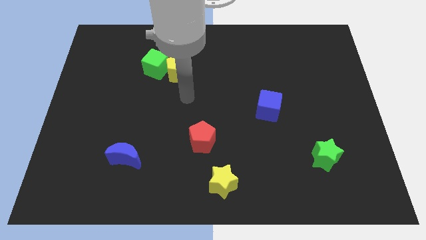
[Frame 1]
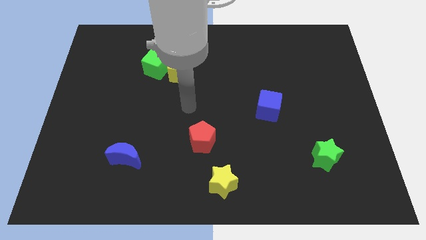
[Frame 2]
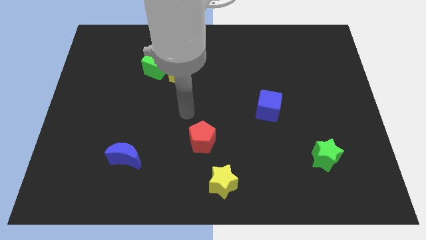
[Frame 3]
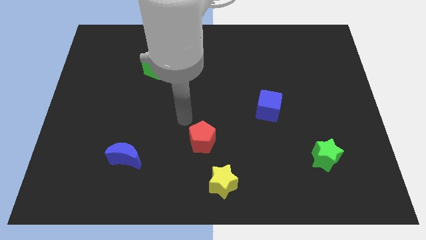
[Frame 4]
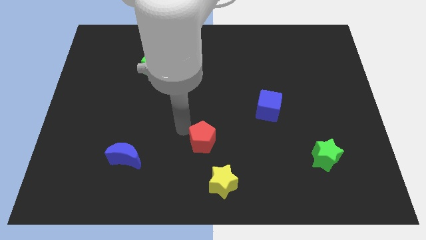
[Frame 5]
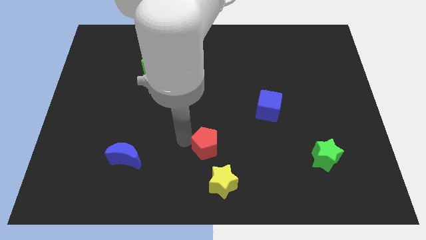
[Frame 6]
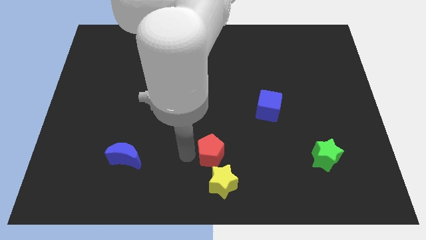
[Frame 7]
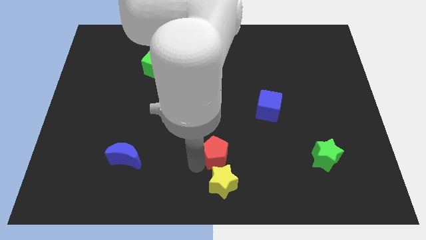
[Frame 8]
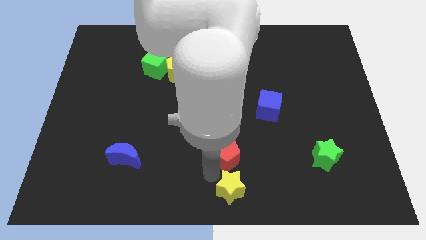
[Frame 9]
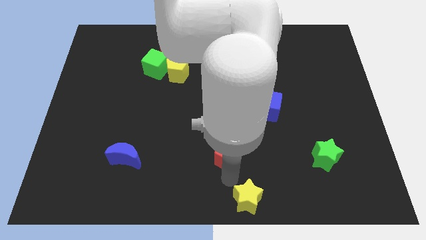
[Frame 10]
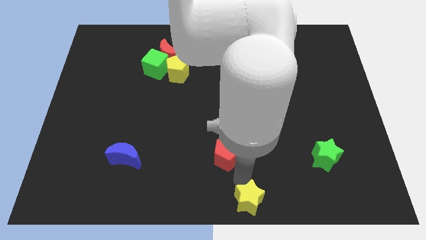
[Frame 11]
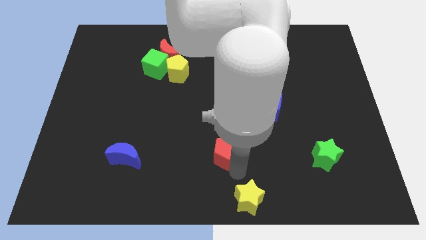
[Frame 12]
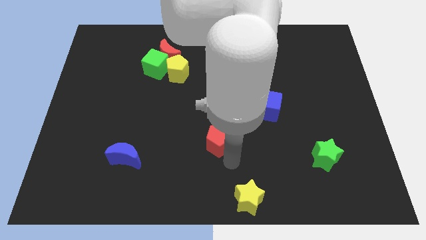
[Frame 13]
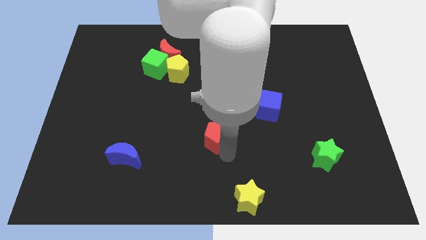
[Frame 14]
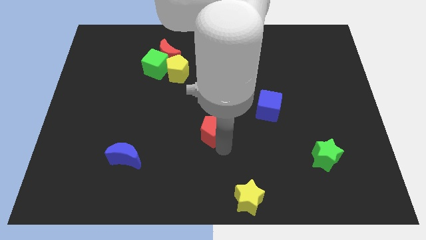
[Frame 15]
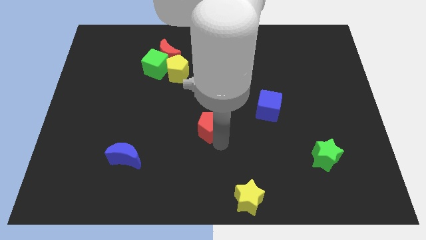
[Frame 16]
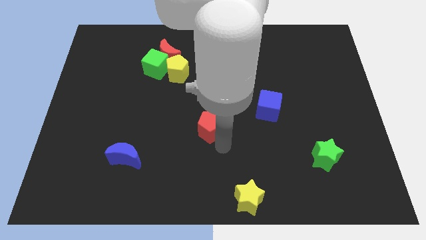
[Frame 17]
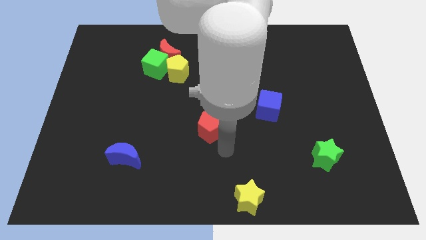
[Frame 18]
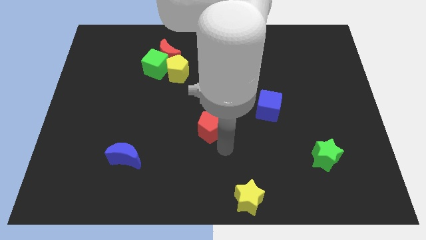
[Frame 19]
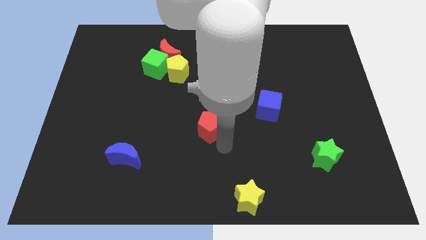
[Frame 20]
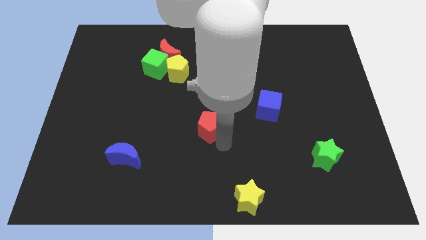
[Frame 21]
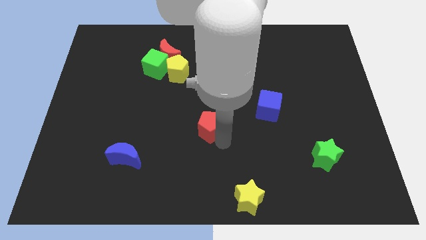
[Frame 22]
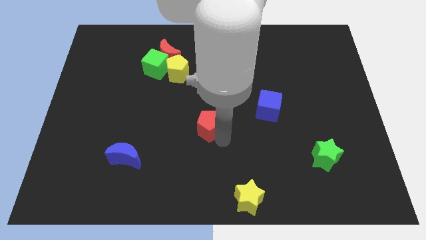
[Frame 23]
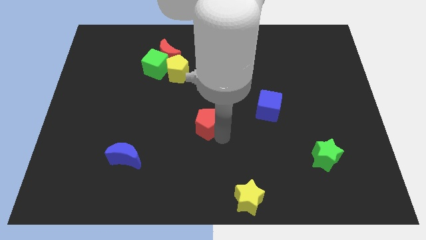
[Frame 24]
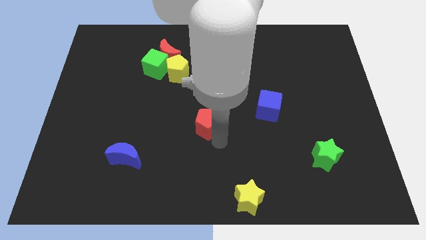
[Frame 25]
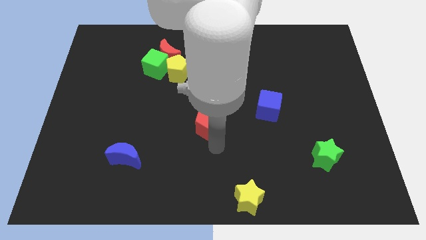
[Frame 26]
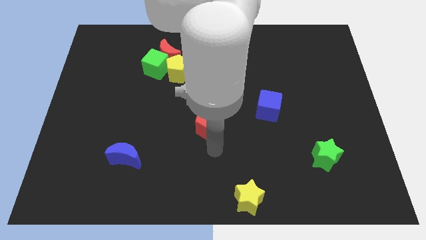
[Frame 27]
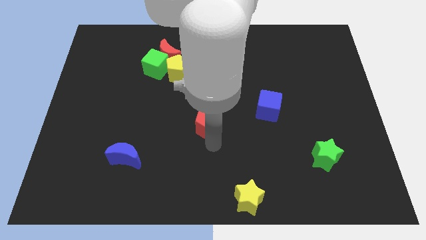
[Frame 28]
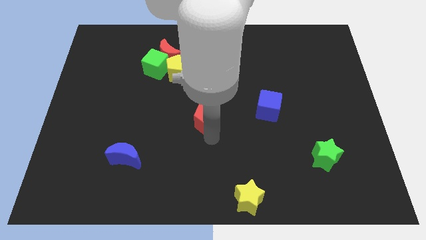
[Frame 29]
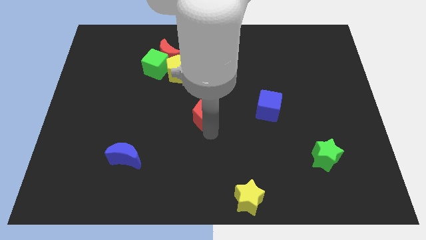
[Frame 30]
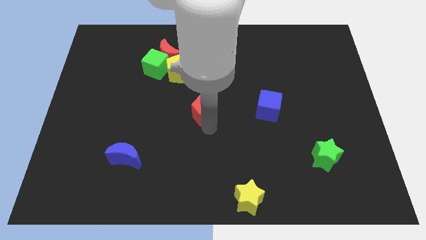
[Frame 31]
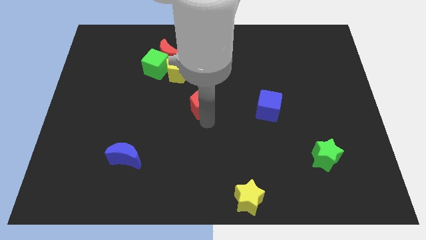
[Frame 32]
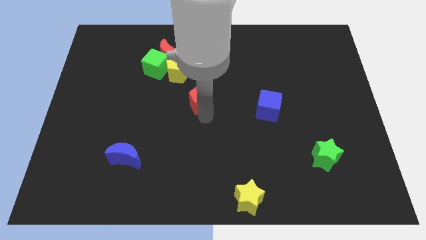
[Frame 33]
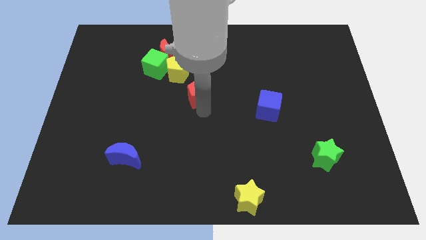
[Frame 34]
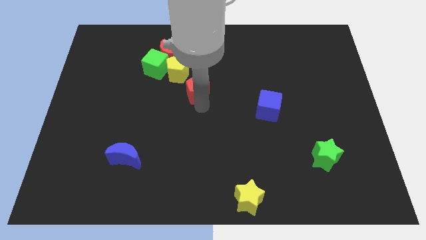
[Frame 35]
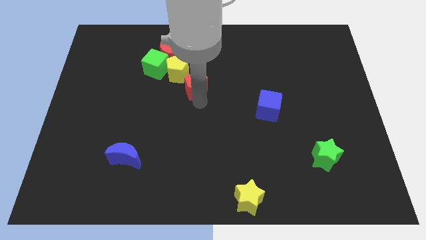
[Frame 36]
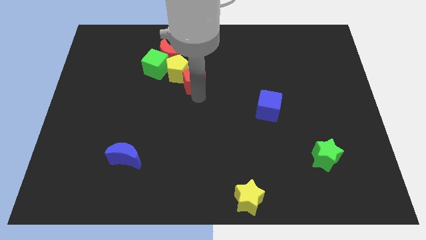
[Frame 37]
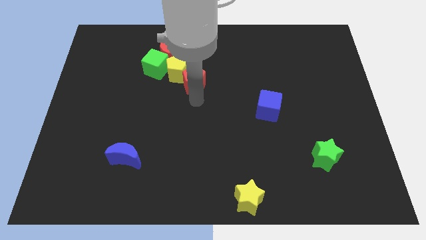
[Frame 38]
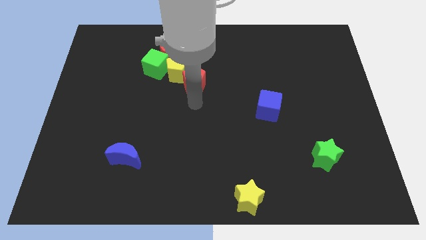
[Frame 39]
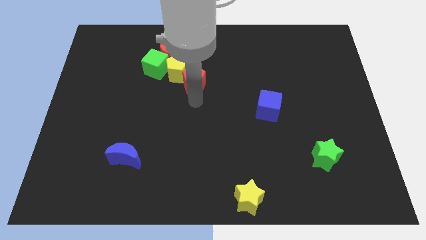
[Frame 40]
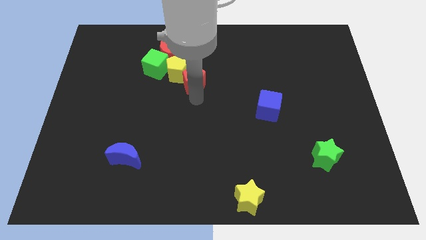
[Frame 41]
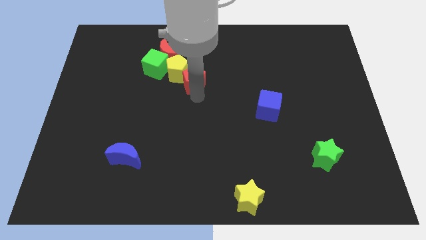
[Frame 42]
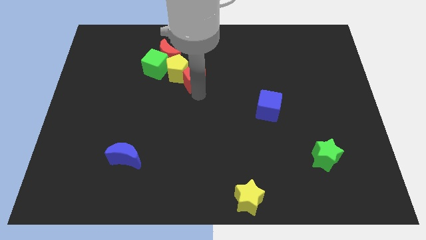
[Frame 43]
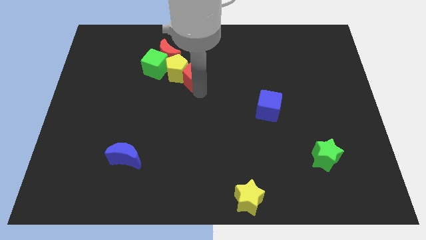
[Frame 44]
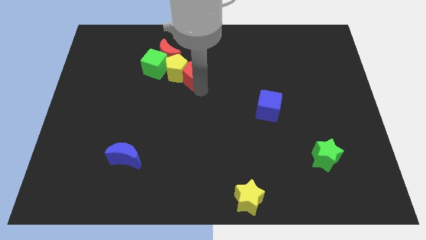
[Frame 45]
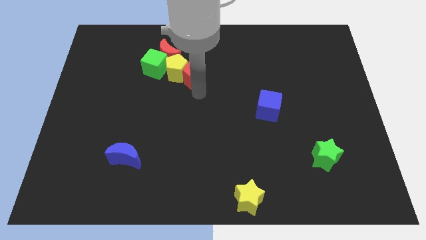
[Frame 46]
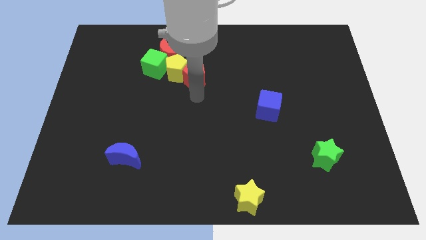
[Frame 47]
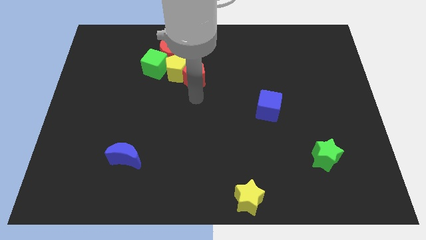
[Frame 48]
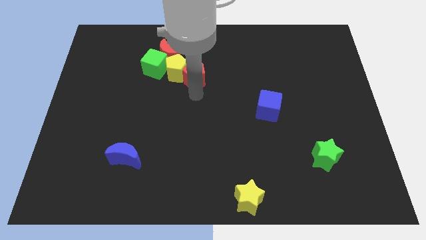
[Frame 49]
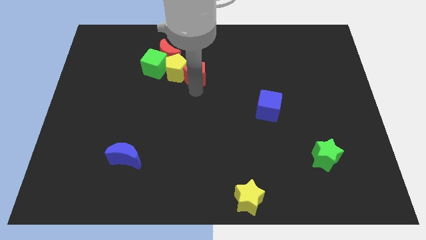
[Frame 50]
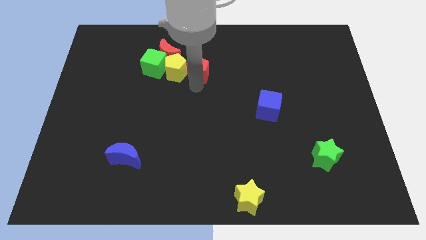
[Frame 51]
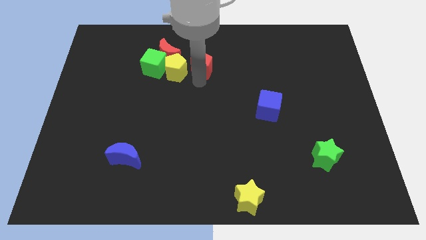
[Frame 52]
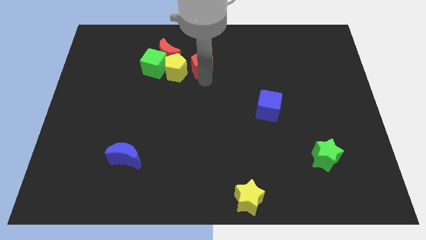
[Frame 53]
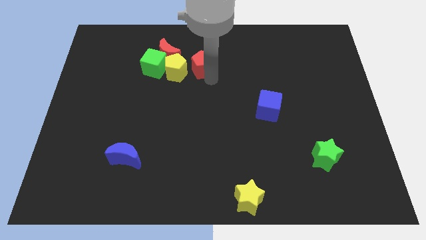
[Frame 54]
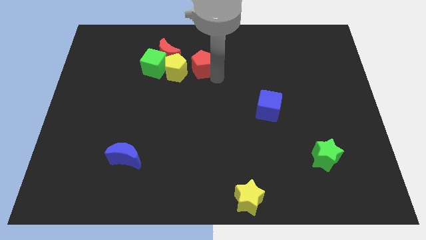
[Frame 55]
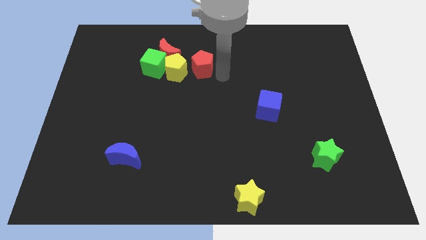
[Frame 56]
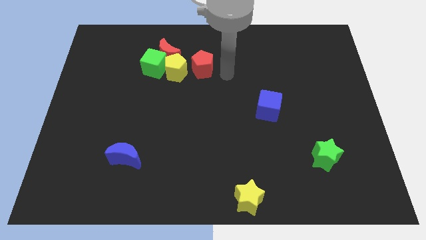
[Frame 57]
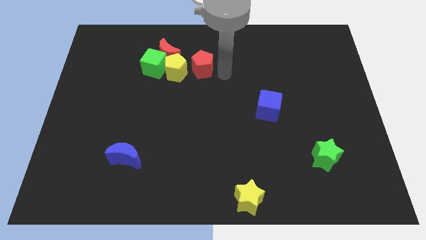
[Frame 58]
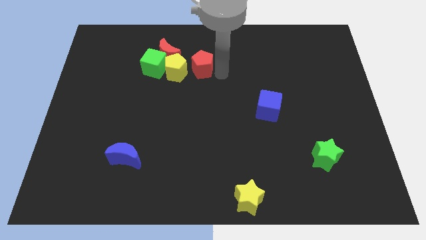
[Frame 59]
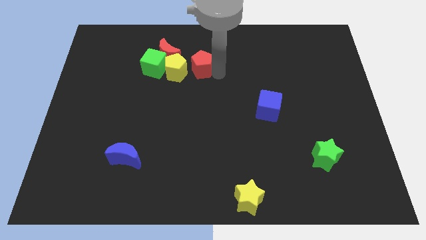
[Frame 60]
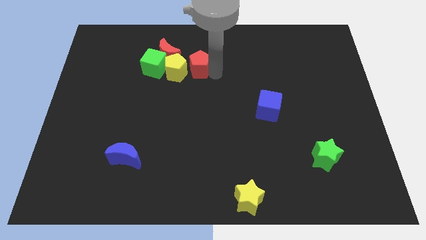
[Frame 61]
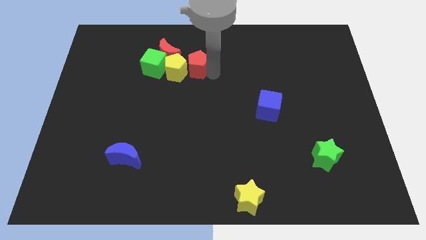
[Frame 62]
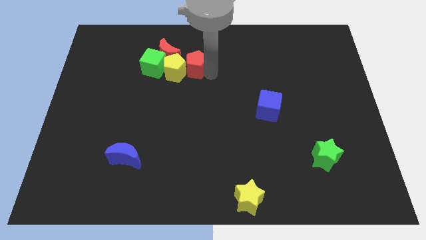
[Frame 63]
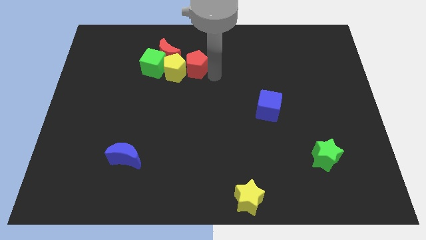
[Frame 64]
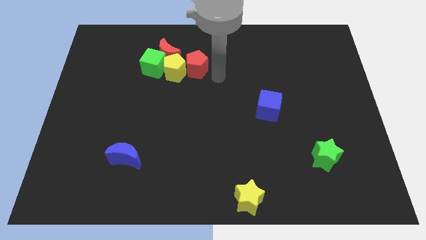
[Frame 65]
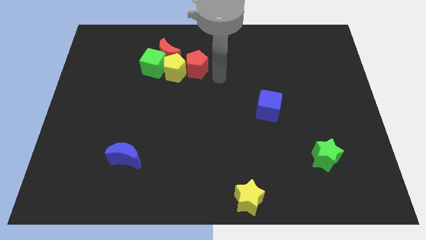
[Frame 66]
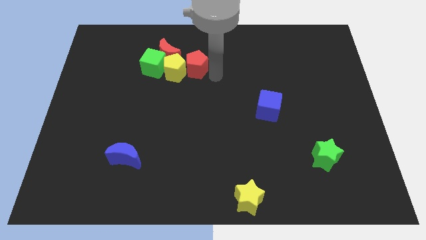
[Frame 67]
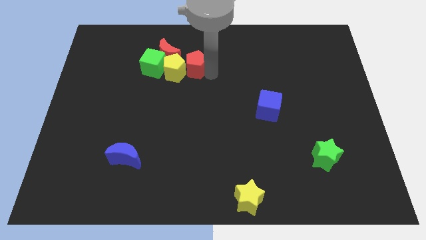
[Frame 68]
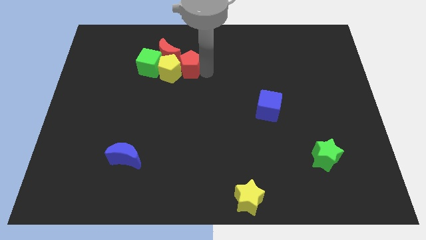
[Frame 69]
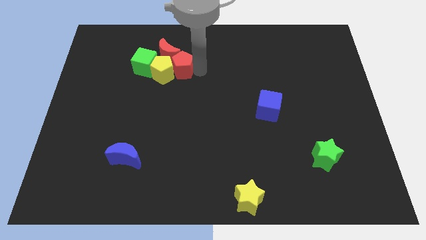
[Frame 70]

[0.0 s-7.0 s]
slide the red pentagon close to the red moon

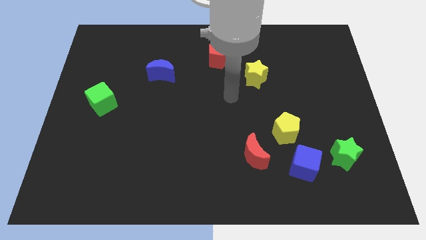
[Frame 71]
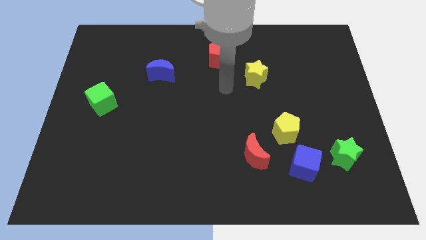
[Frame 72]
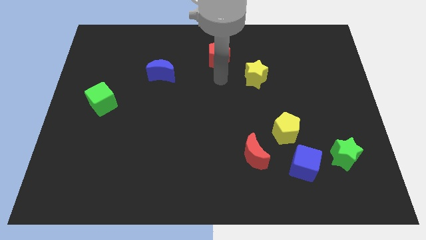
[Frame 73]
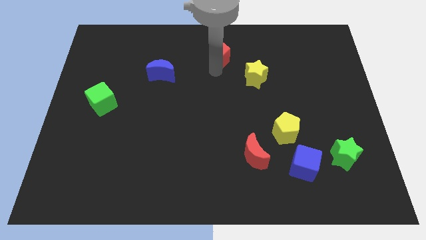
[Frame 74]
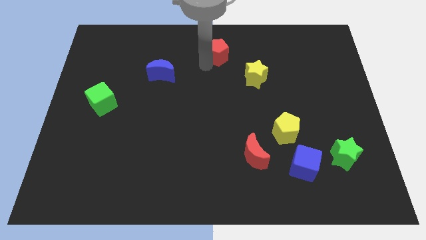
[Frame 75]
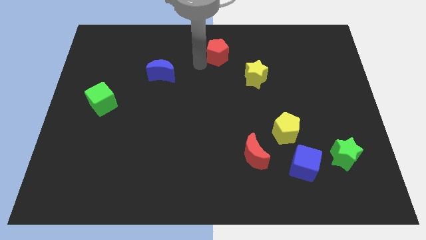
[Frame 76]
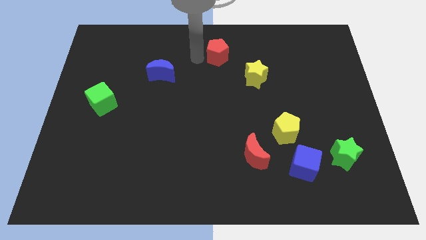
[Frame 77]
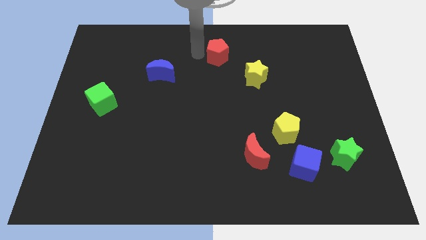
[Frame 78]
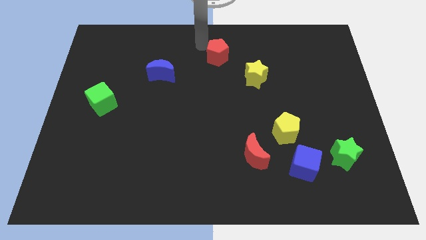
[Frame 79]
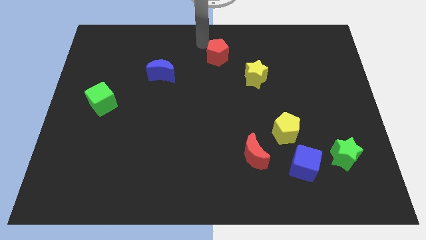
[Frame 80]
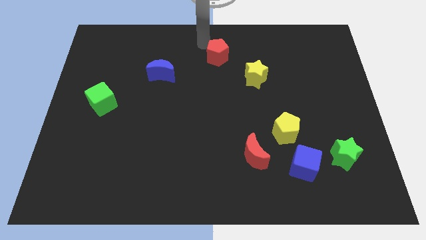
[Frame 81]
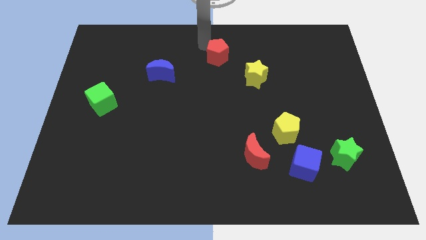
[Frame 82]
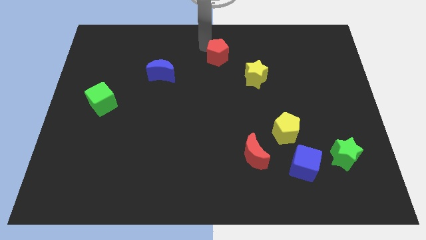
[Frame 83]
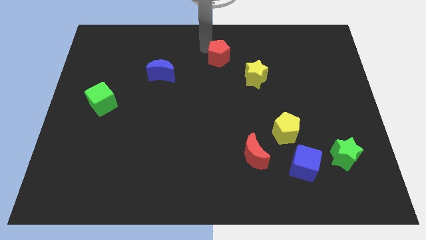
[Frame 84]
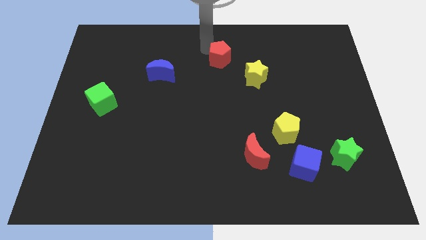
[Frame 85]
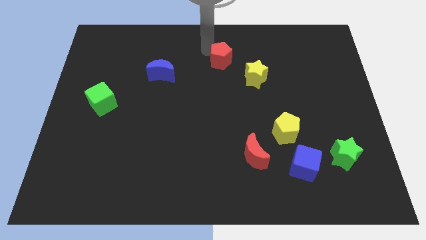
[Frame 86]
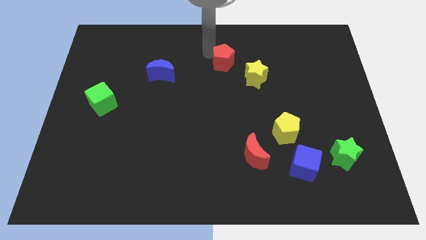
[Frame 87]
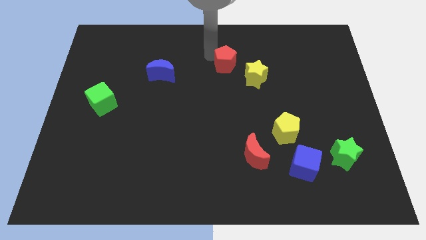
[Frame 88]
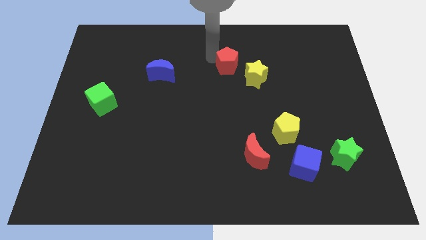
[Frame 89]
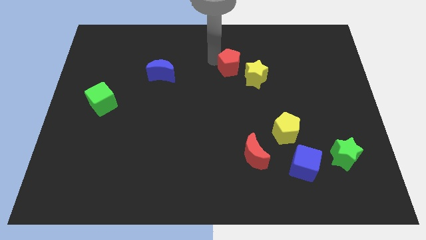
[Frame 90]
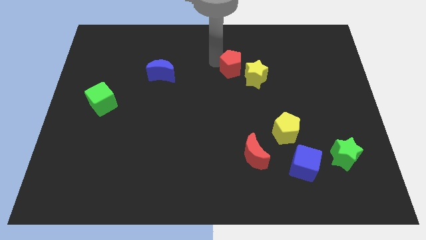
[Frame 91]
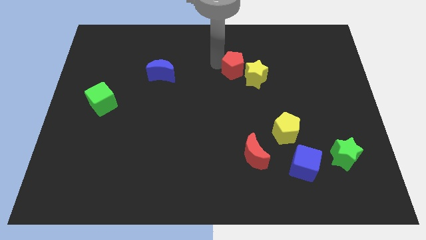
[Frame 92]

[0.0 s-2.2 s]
slide the red pentagon to the yellow star
